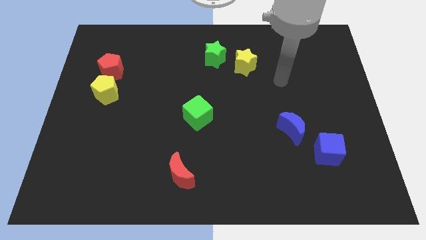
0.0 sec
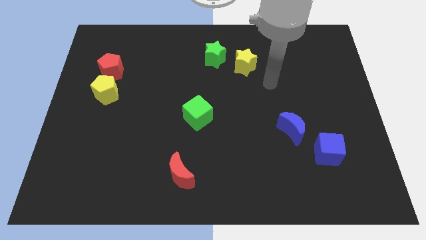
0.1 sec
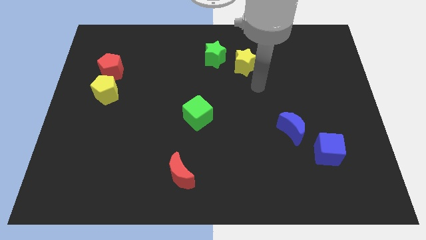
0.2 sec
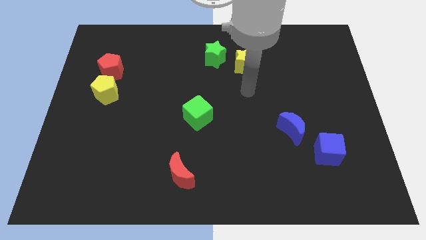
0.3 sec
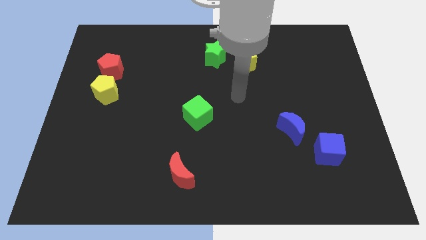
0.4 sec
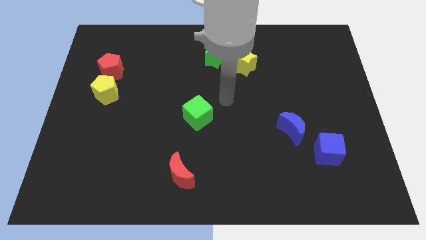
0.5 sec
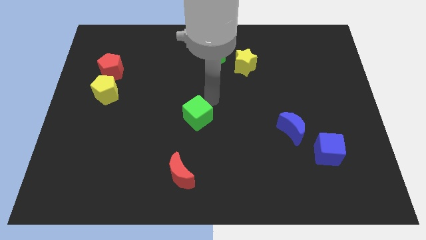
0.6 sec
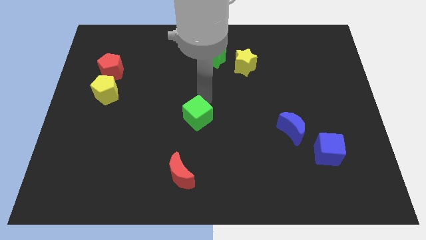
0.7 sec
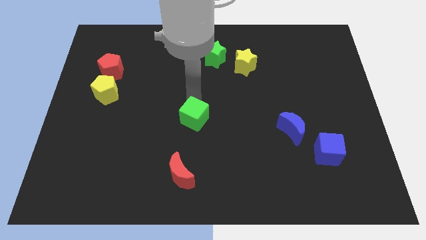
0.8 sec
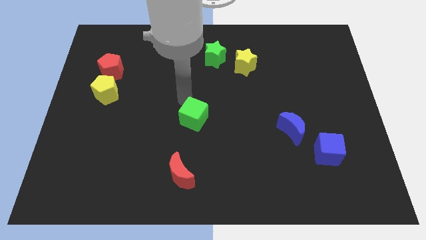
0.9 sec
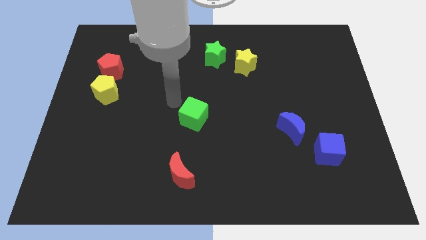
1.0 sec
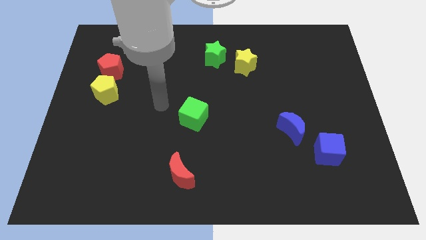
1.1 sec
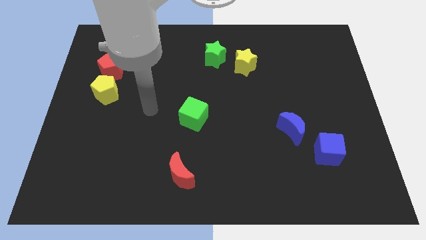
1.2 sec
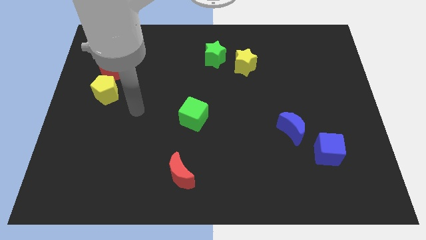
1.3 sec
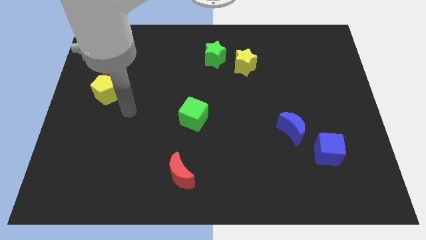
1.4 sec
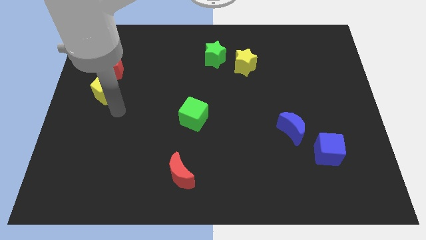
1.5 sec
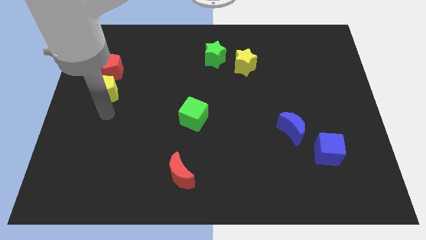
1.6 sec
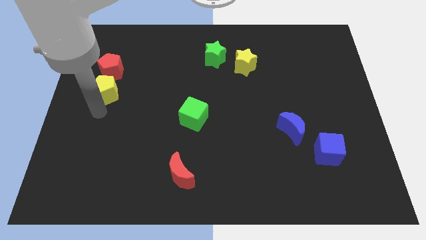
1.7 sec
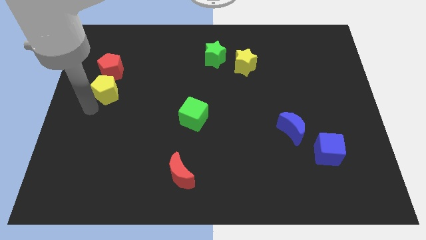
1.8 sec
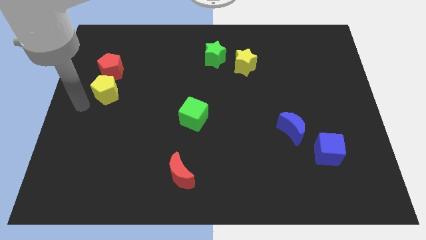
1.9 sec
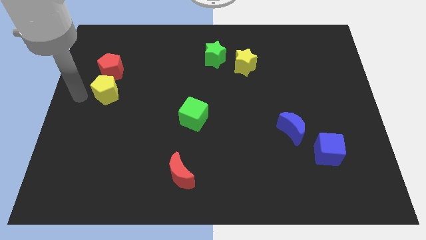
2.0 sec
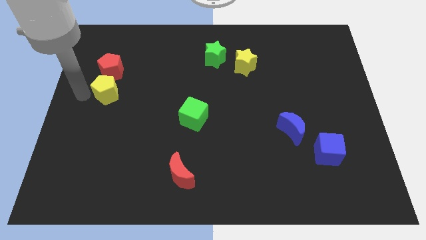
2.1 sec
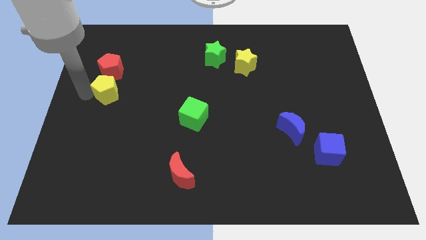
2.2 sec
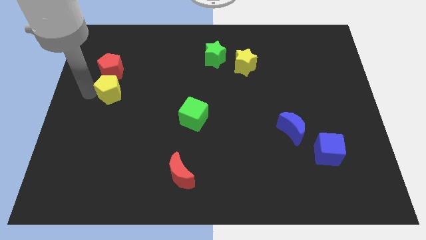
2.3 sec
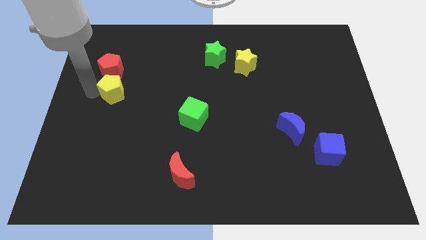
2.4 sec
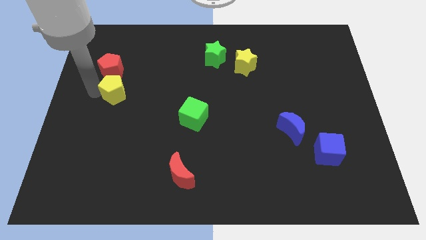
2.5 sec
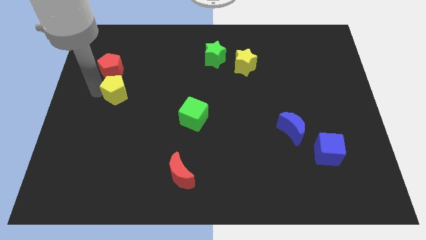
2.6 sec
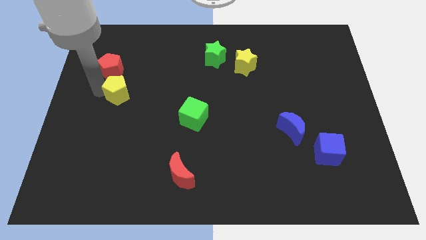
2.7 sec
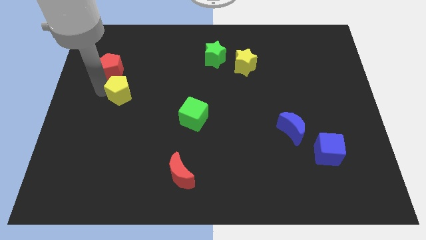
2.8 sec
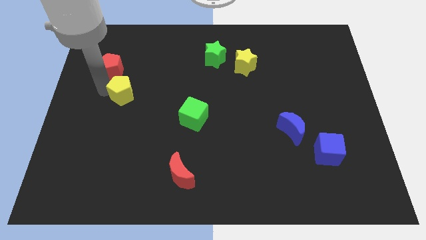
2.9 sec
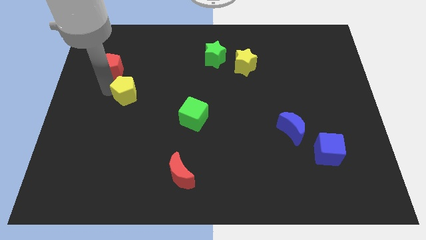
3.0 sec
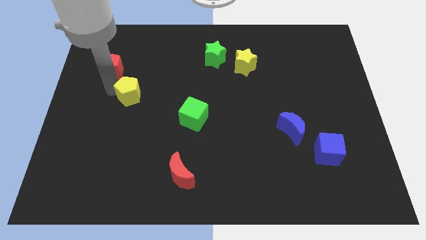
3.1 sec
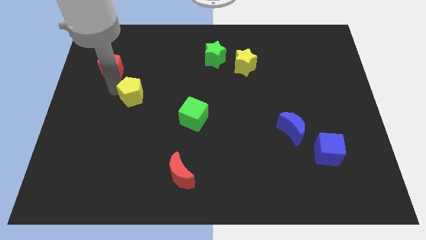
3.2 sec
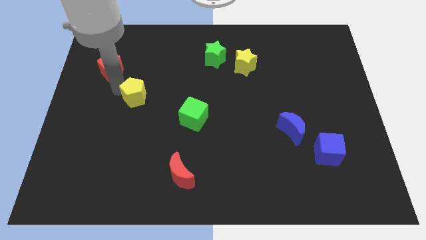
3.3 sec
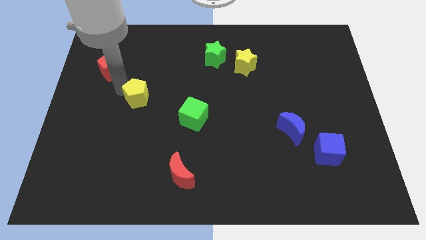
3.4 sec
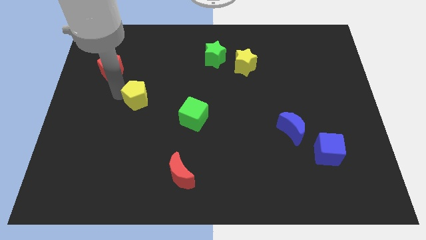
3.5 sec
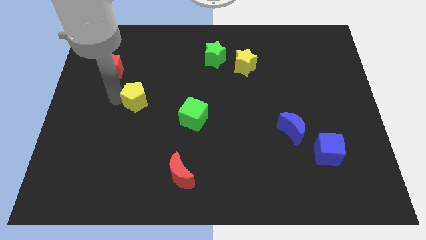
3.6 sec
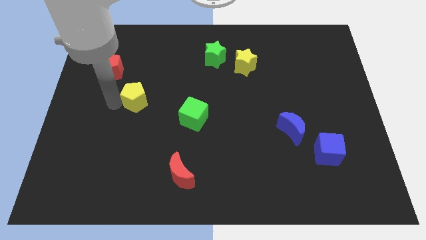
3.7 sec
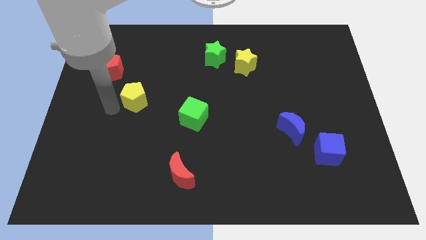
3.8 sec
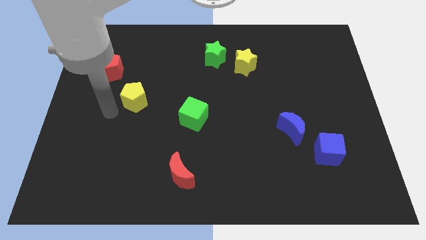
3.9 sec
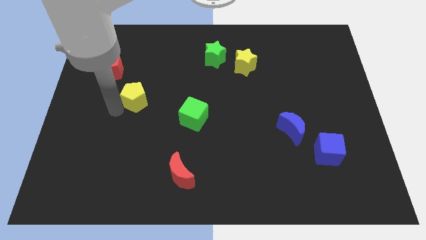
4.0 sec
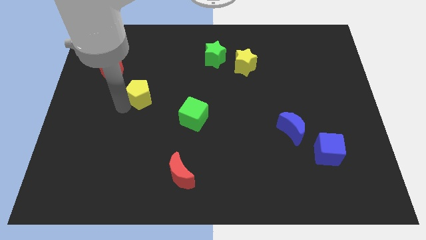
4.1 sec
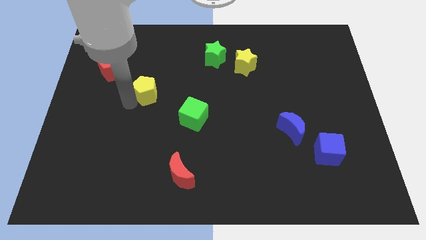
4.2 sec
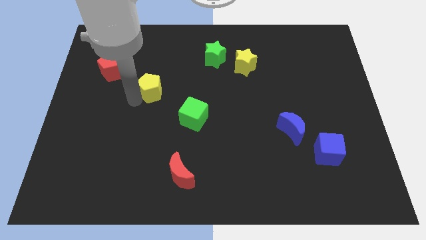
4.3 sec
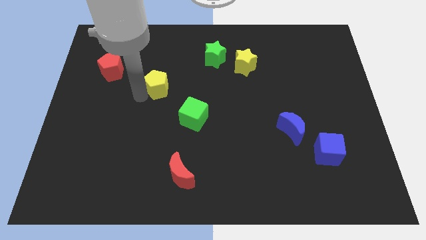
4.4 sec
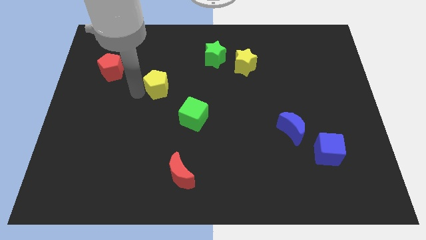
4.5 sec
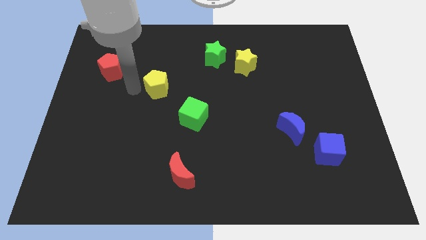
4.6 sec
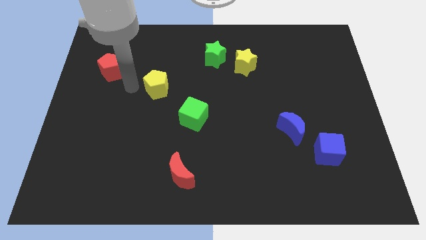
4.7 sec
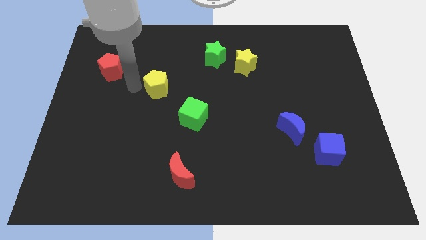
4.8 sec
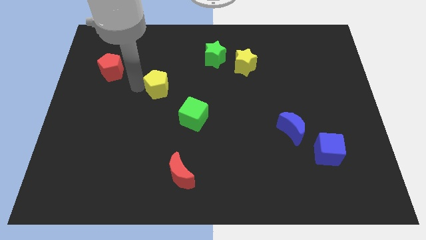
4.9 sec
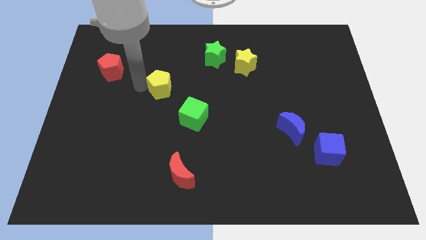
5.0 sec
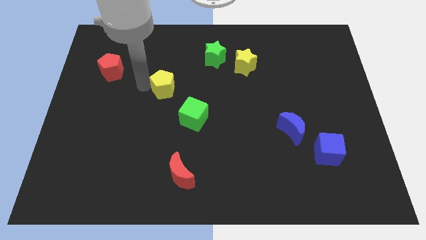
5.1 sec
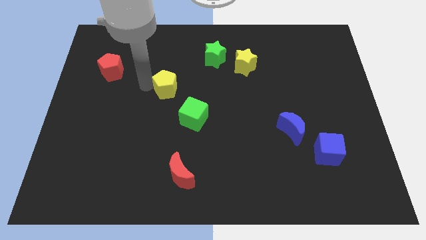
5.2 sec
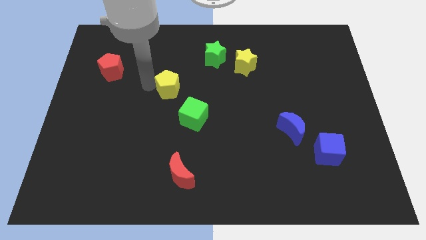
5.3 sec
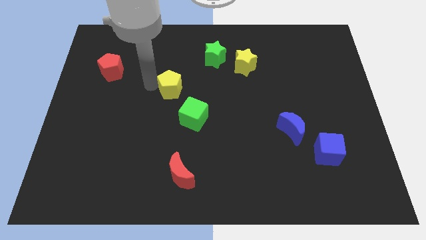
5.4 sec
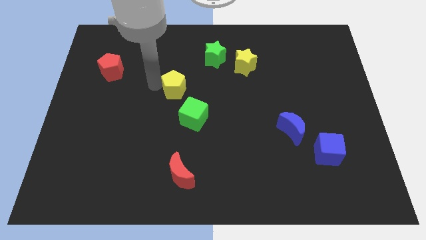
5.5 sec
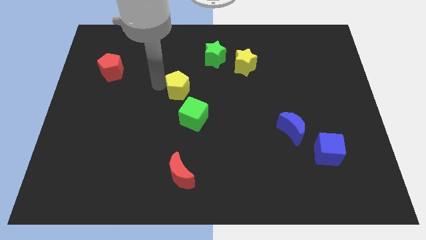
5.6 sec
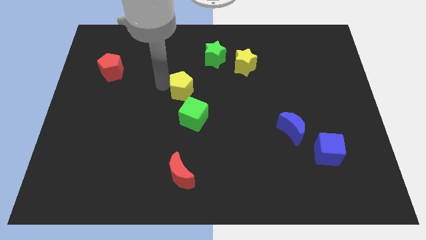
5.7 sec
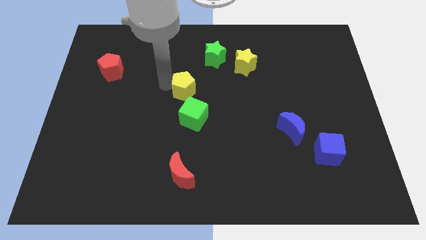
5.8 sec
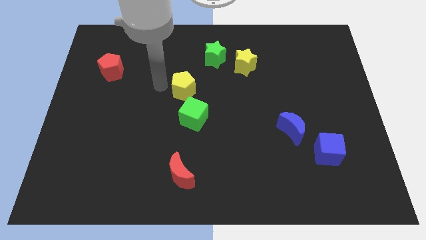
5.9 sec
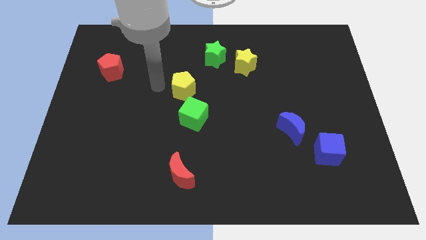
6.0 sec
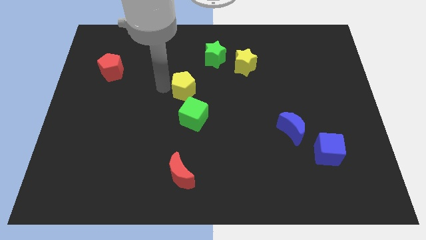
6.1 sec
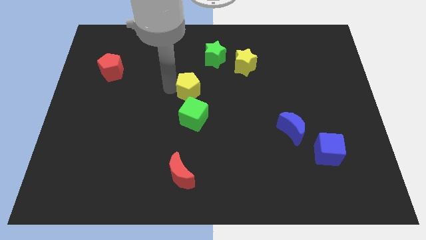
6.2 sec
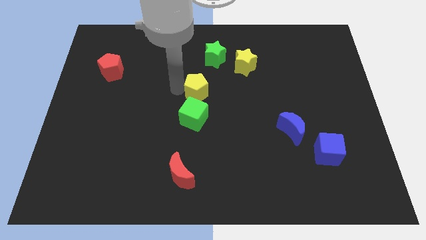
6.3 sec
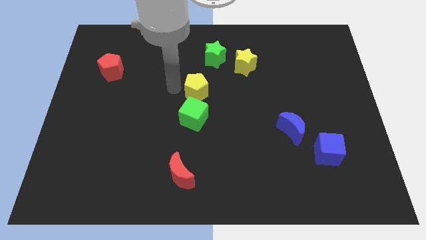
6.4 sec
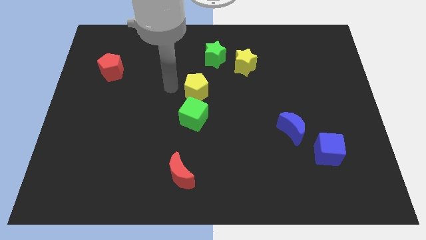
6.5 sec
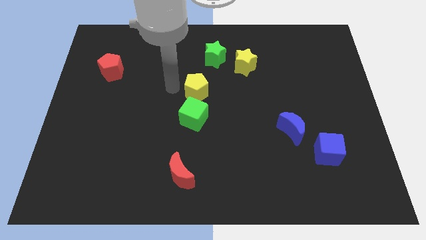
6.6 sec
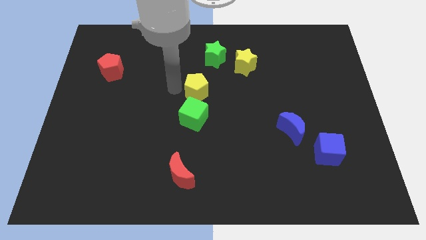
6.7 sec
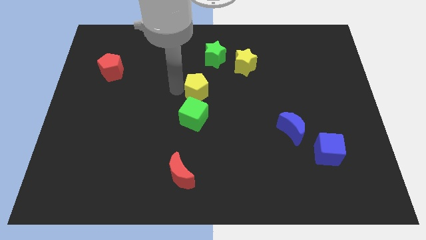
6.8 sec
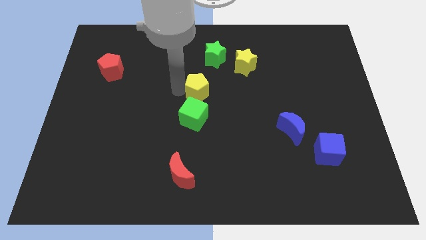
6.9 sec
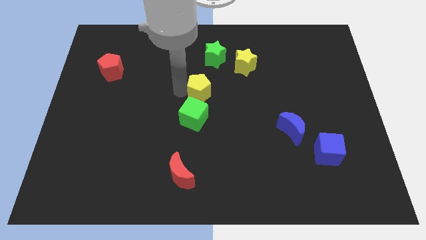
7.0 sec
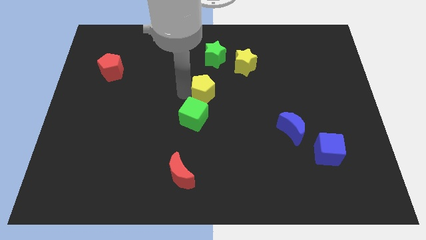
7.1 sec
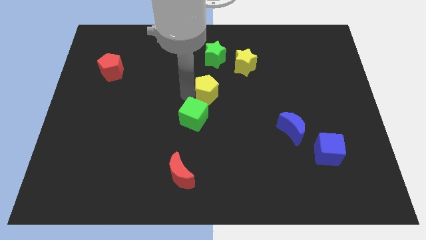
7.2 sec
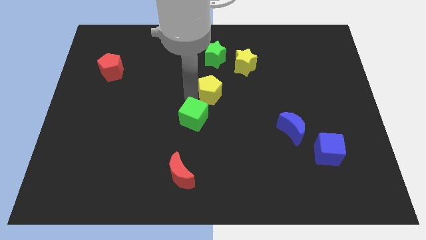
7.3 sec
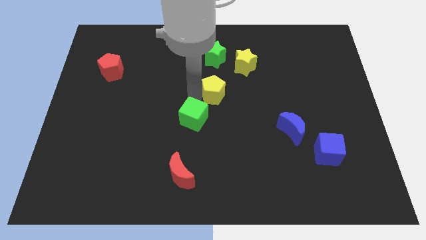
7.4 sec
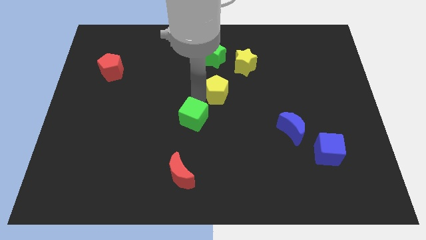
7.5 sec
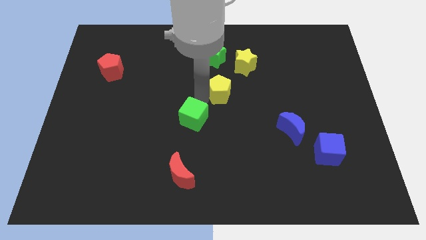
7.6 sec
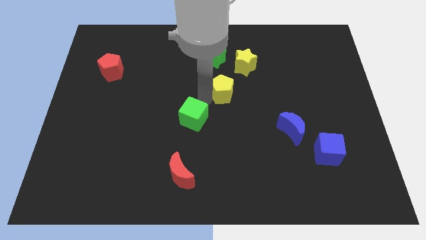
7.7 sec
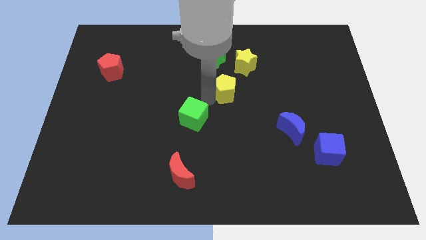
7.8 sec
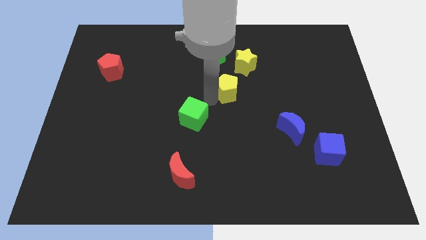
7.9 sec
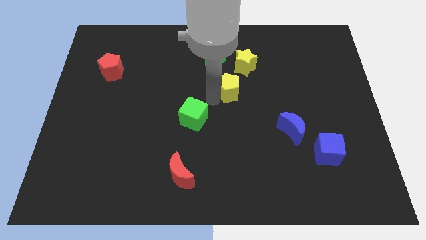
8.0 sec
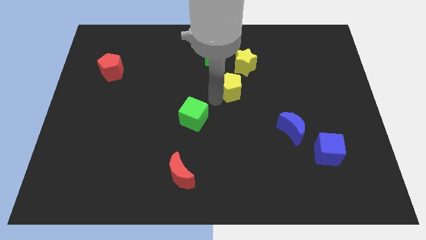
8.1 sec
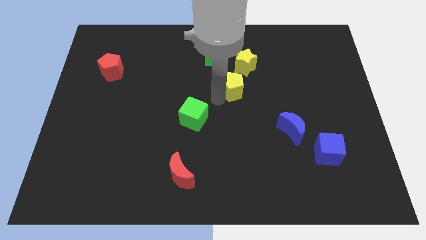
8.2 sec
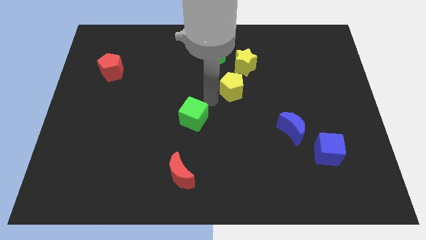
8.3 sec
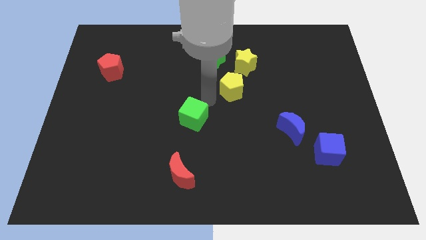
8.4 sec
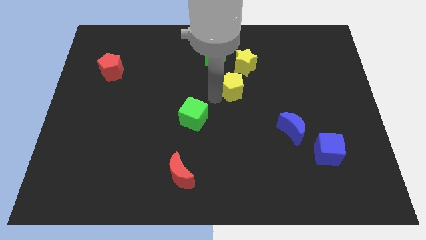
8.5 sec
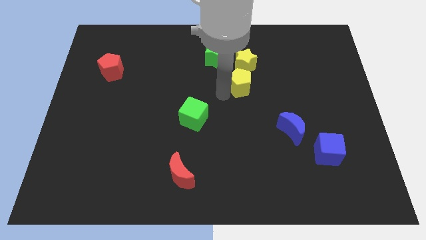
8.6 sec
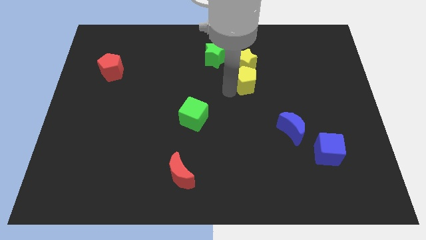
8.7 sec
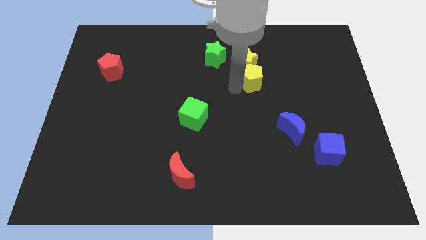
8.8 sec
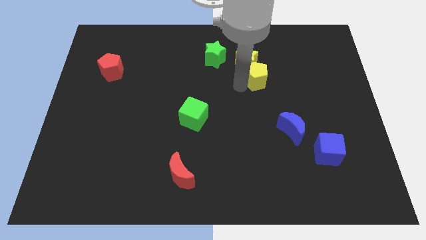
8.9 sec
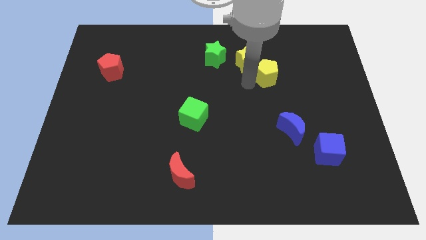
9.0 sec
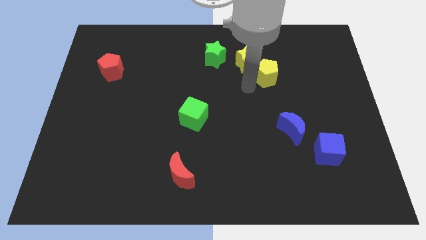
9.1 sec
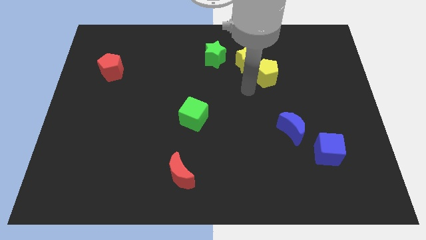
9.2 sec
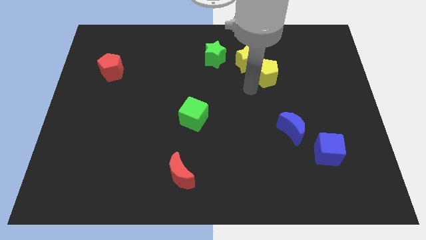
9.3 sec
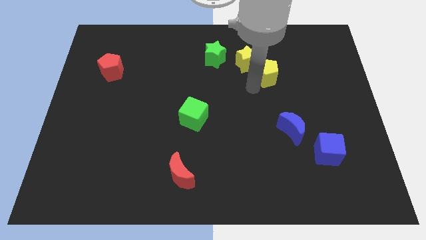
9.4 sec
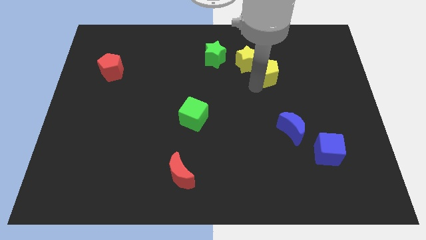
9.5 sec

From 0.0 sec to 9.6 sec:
slide the yellow pentagon just right of the yellow star
